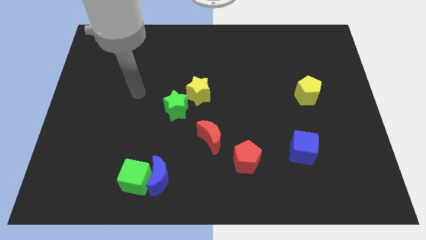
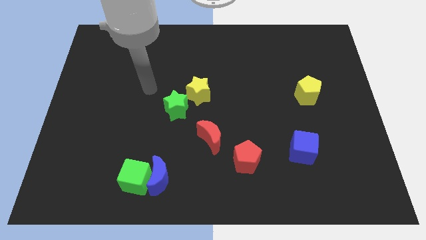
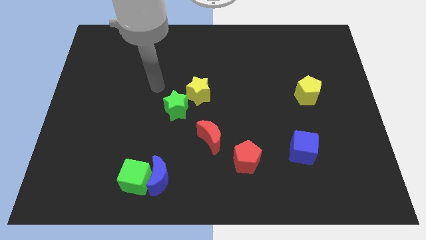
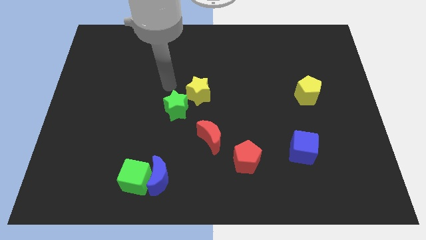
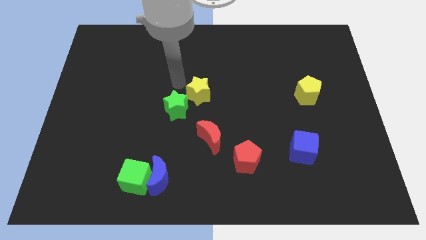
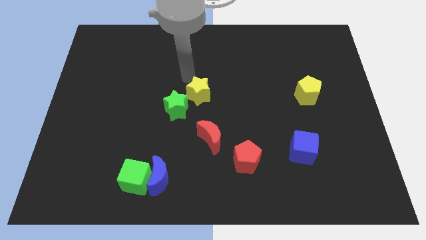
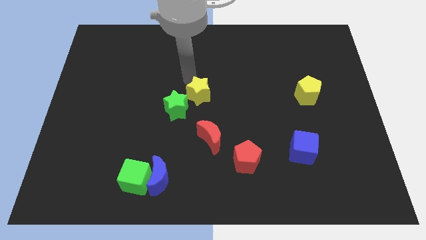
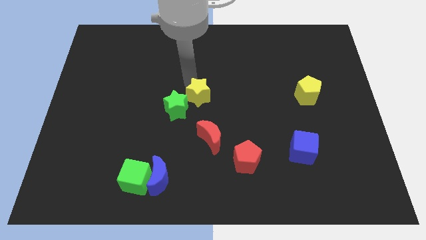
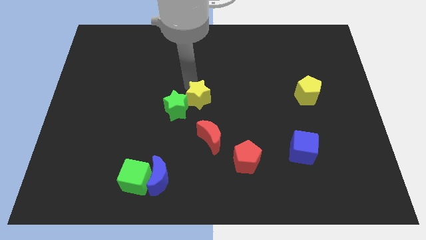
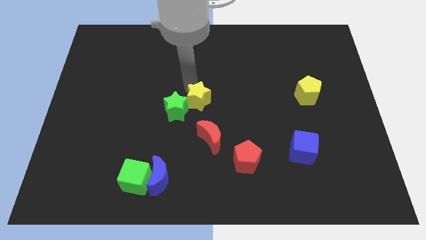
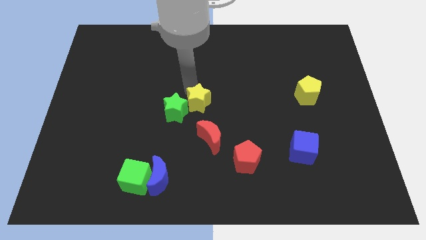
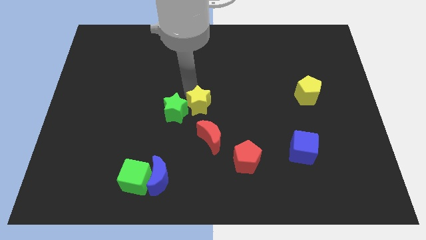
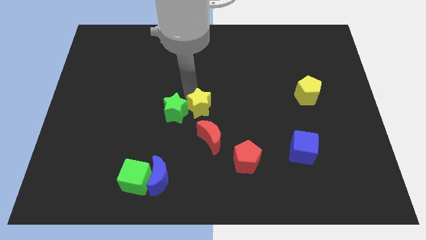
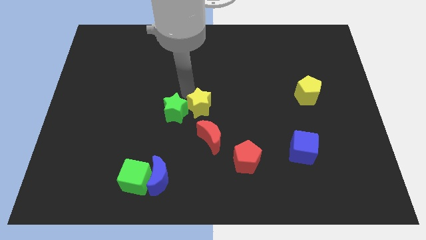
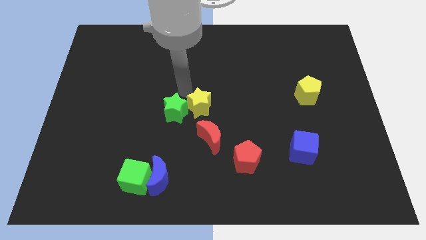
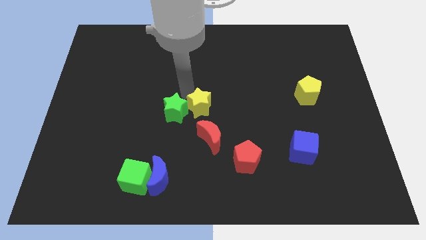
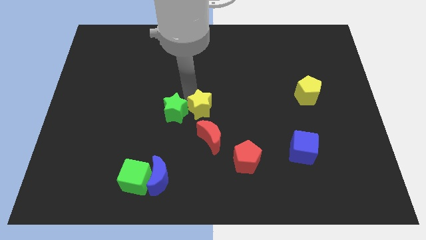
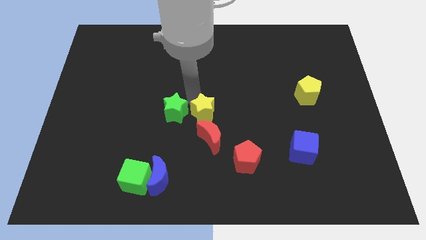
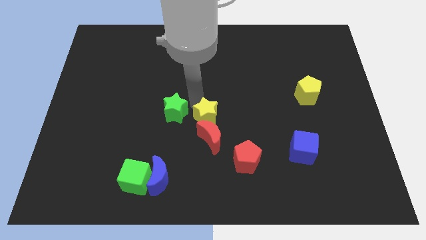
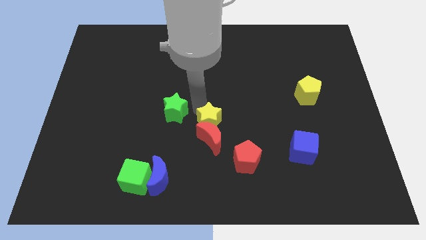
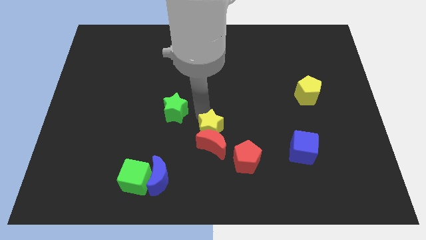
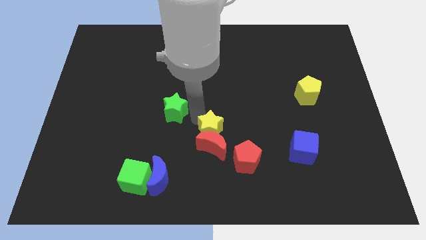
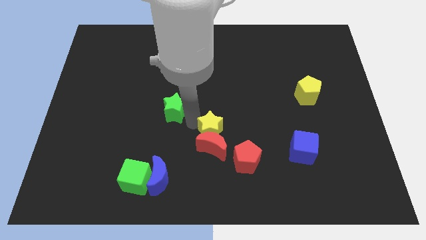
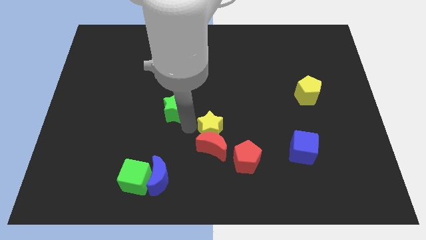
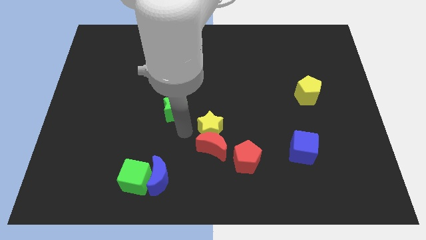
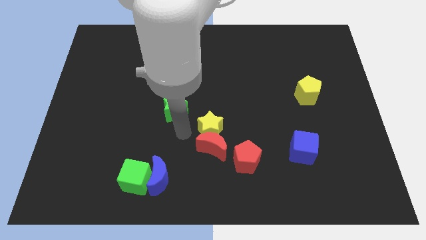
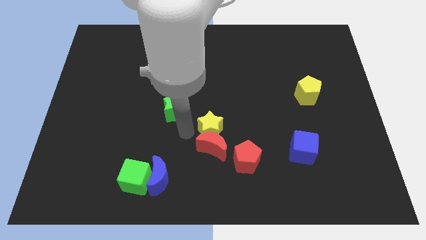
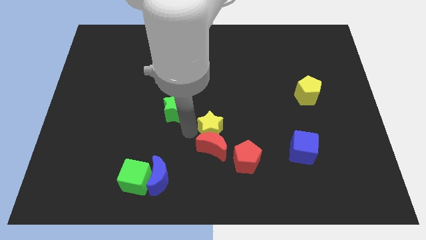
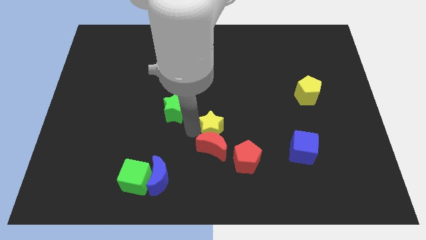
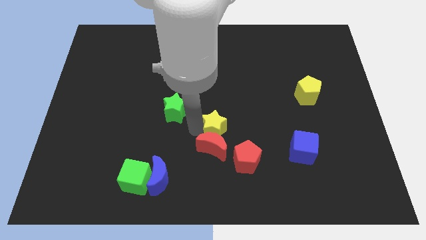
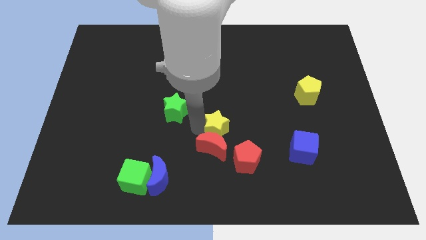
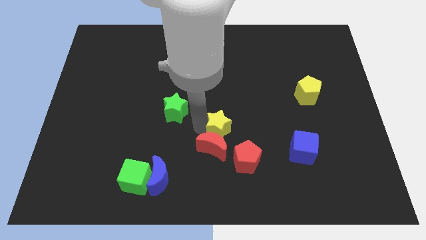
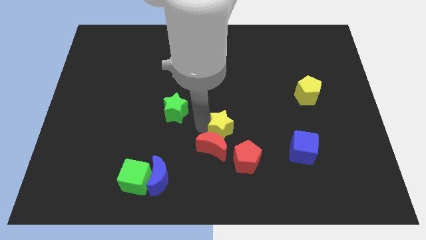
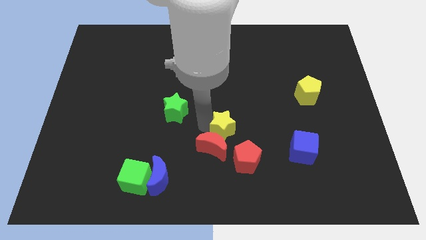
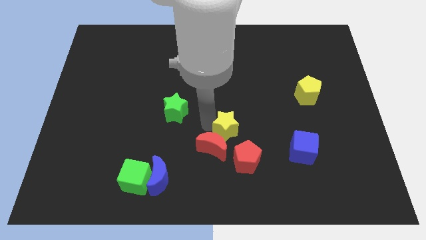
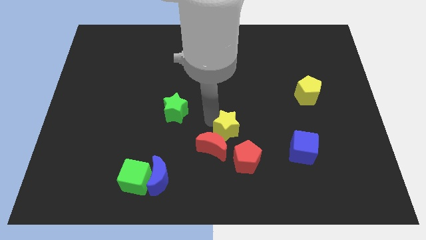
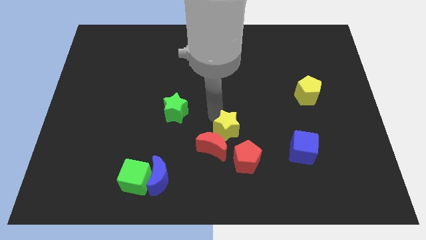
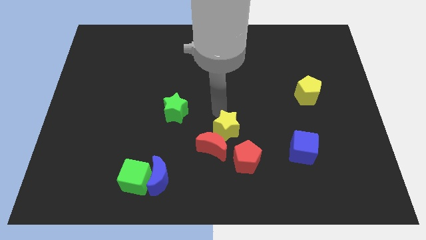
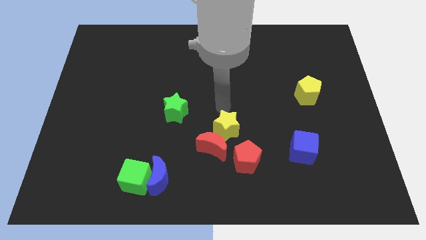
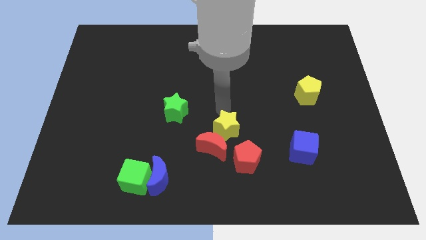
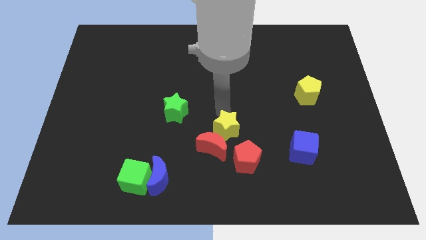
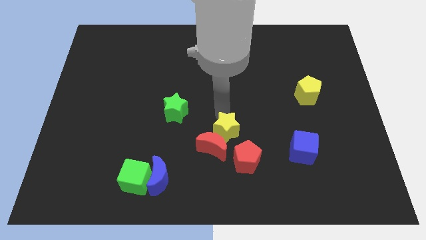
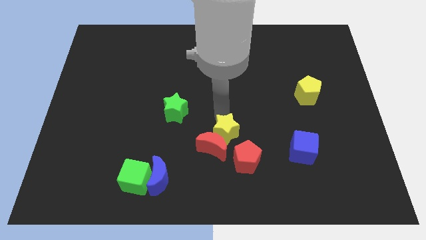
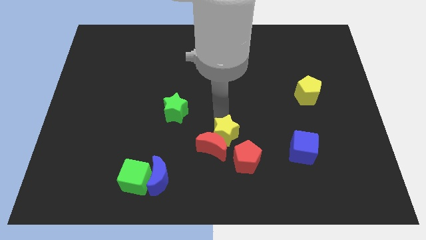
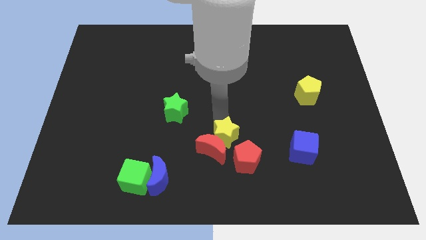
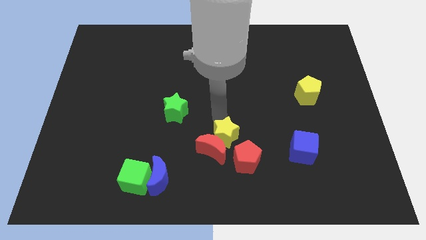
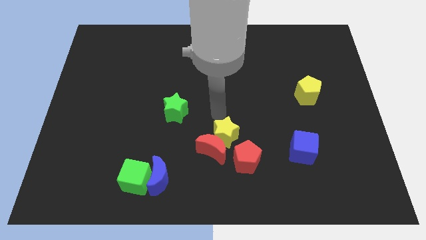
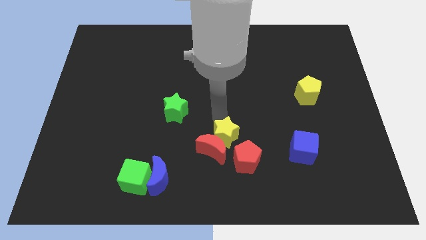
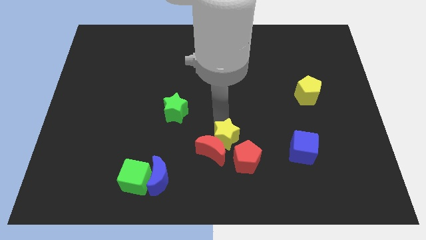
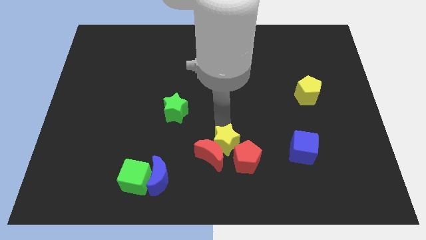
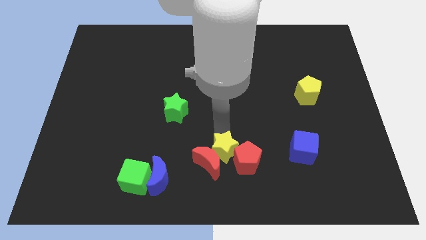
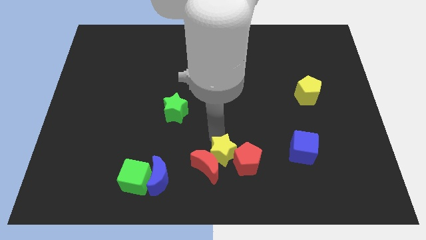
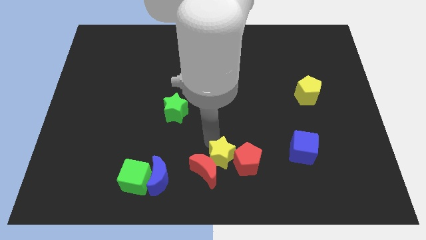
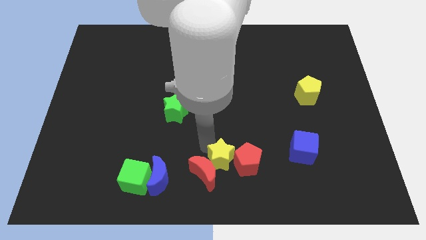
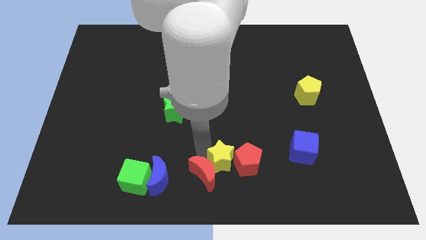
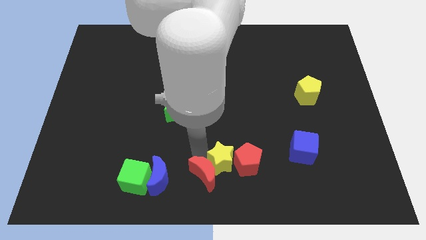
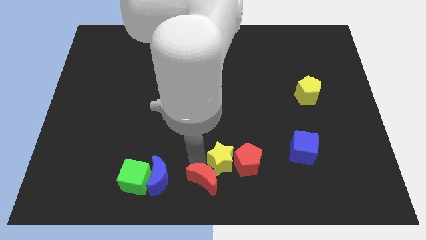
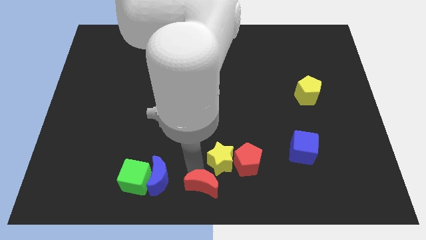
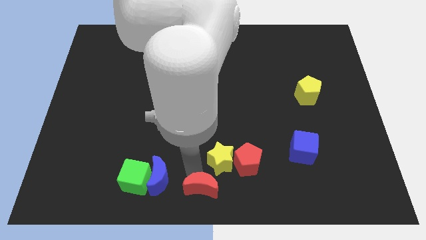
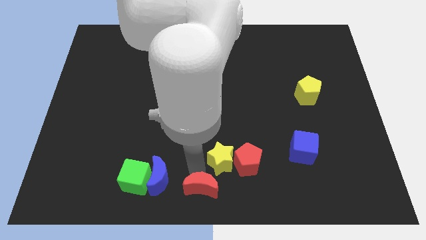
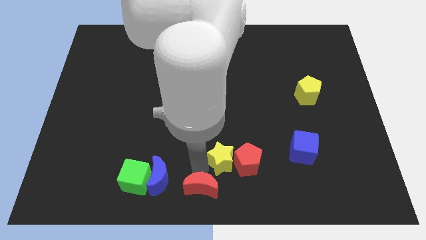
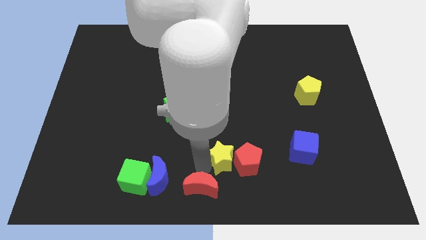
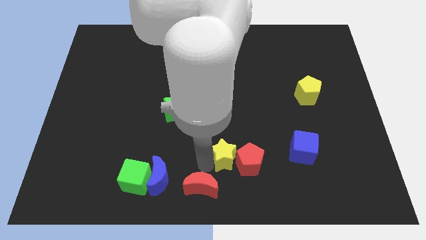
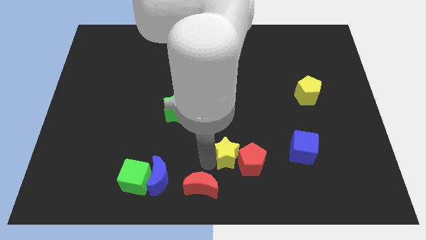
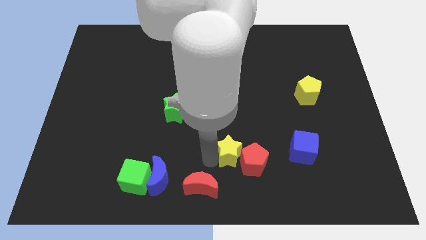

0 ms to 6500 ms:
push the yellow star to the left of the blue cube

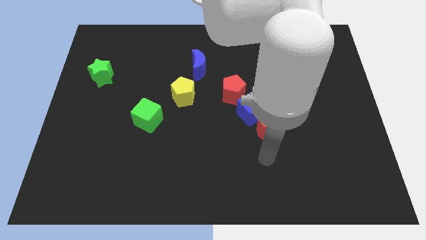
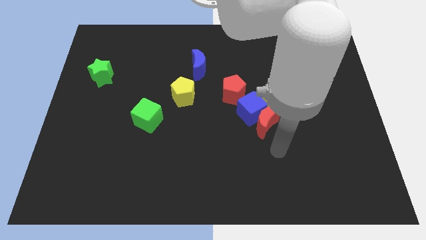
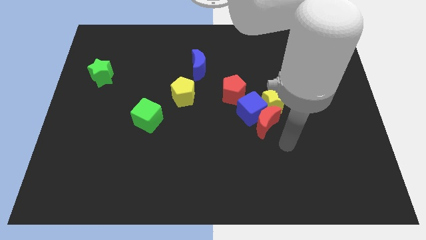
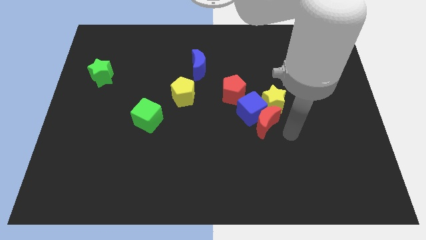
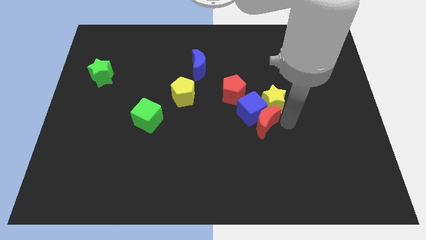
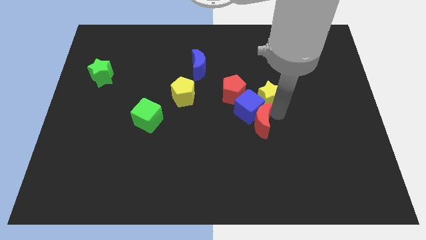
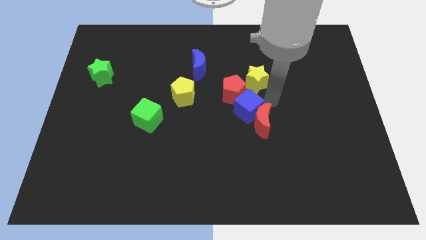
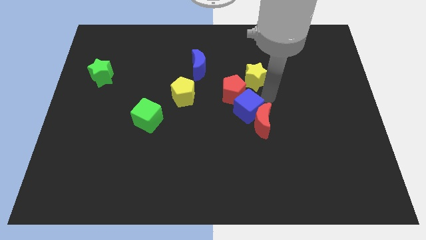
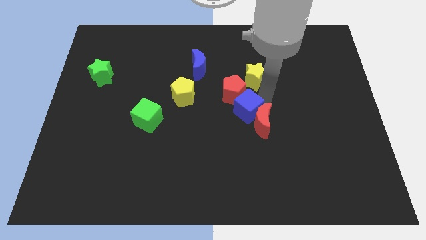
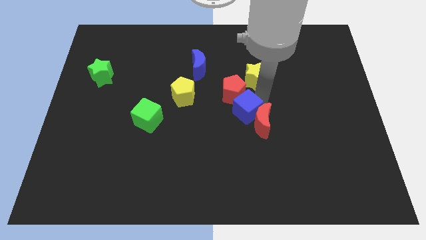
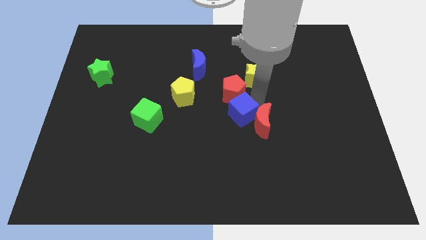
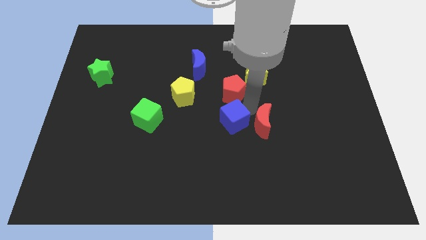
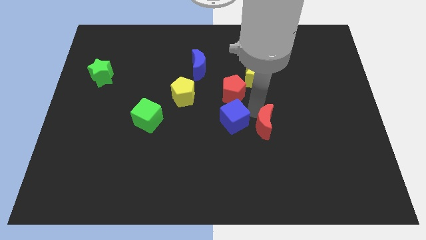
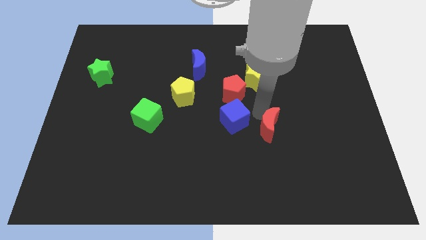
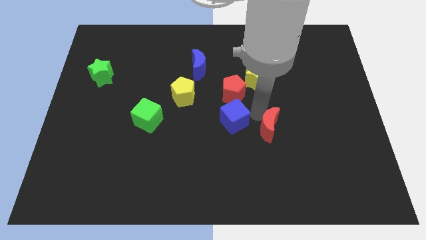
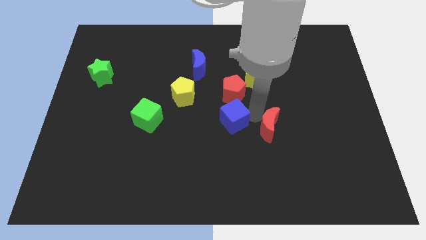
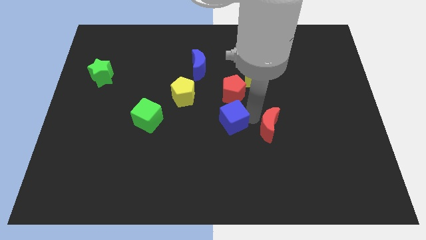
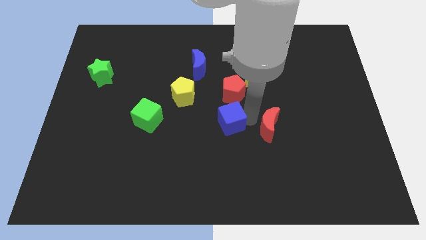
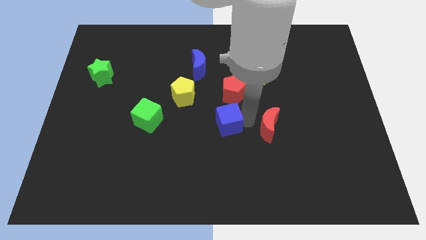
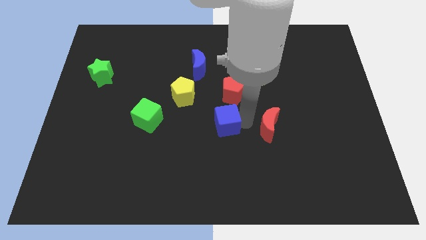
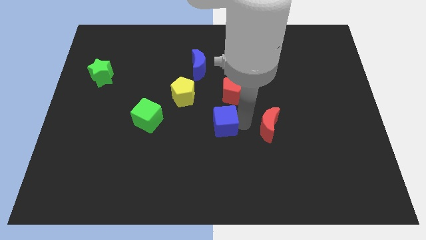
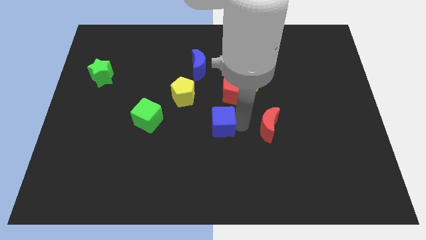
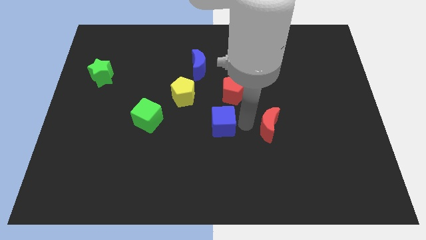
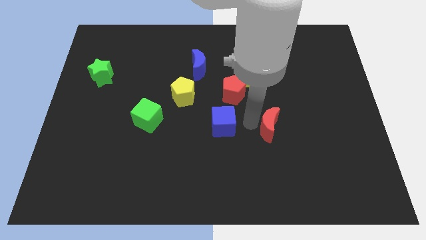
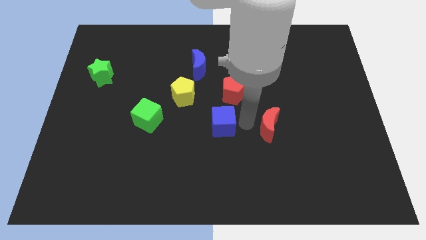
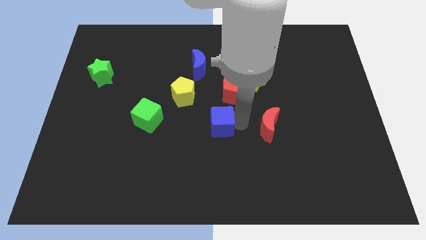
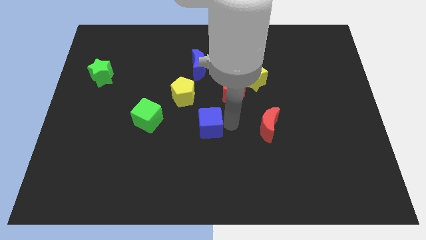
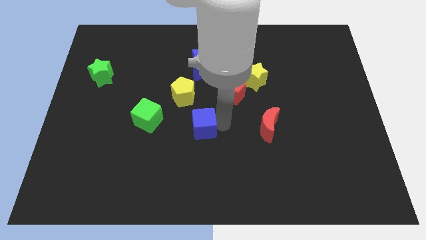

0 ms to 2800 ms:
move the blue cube below the yellow pentagon
